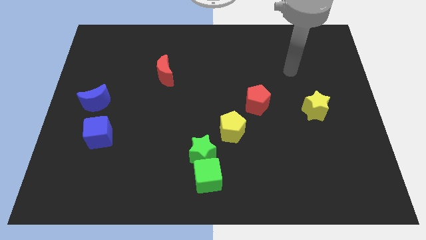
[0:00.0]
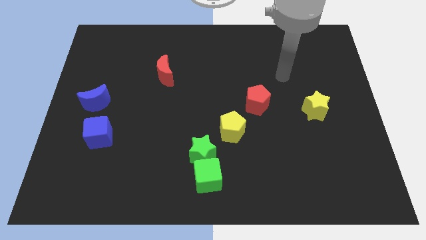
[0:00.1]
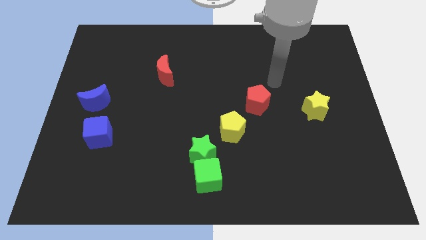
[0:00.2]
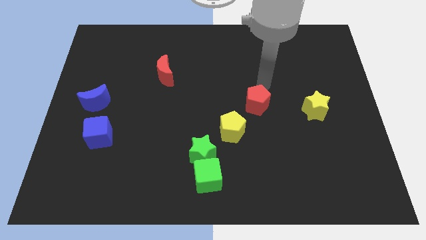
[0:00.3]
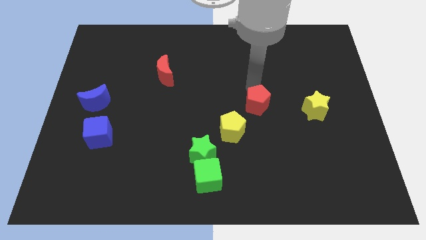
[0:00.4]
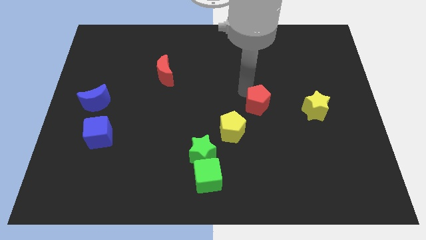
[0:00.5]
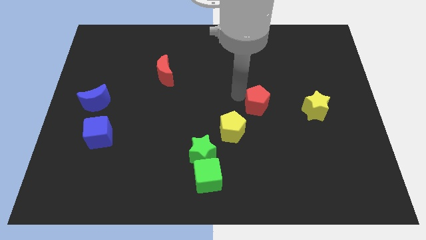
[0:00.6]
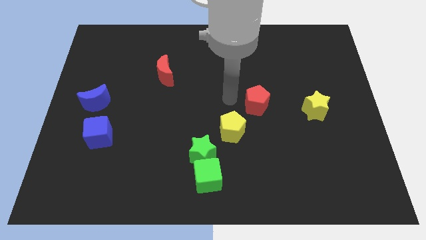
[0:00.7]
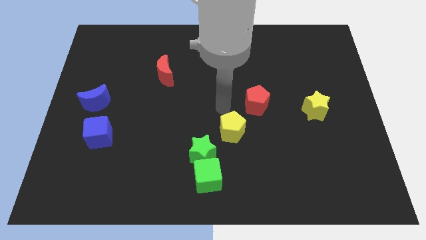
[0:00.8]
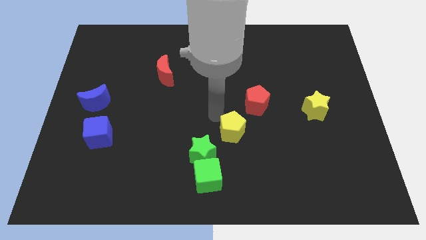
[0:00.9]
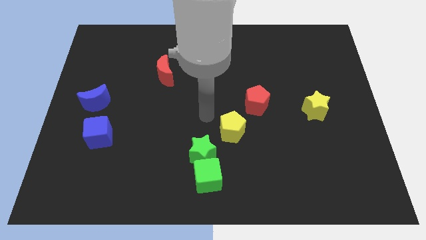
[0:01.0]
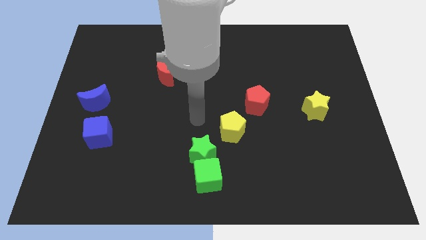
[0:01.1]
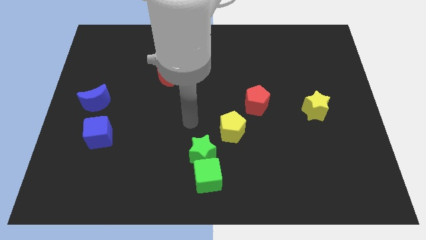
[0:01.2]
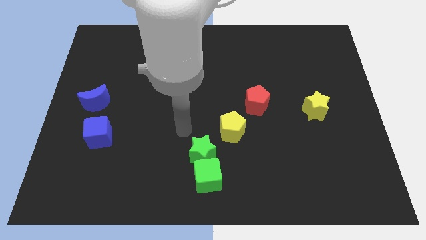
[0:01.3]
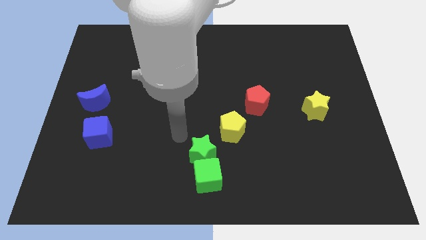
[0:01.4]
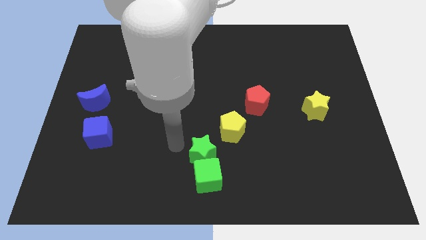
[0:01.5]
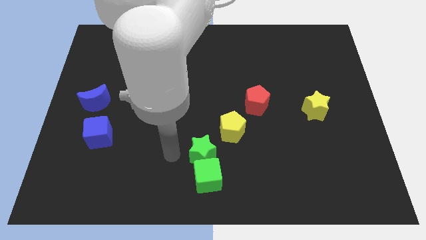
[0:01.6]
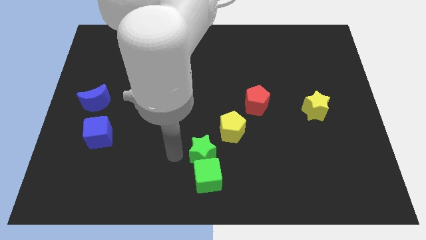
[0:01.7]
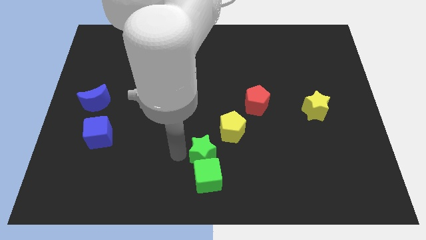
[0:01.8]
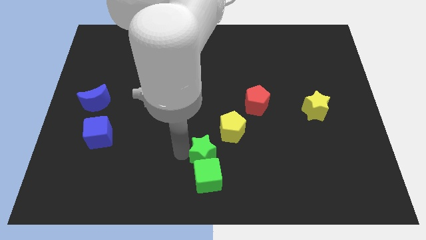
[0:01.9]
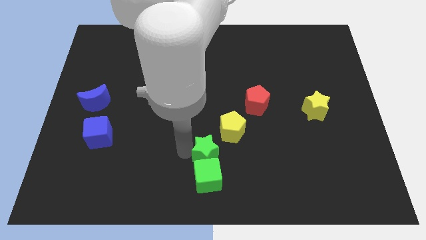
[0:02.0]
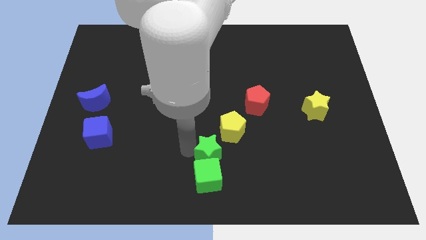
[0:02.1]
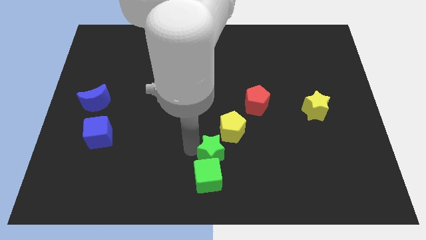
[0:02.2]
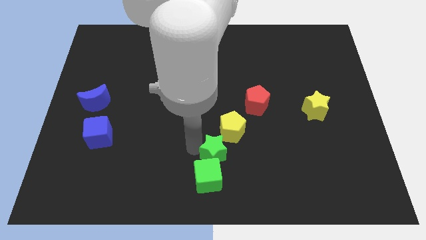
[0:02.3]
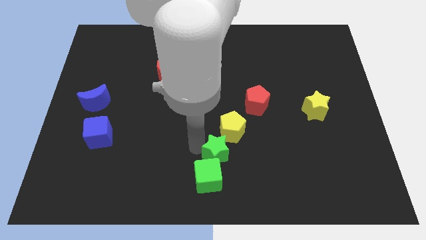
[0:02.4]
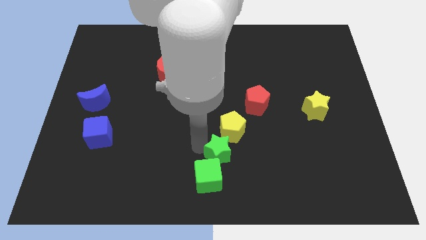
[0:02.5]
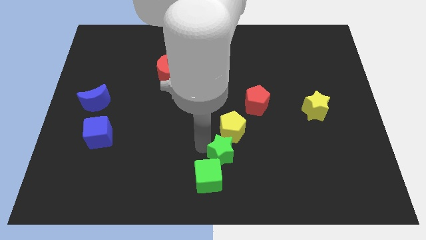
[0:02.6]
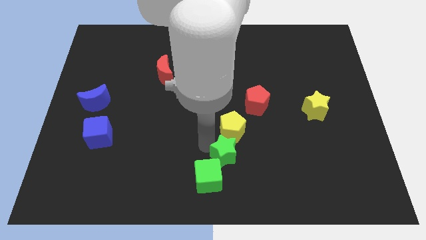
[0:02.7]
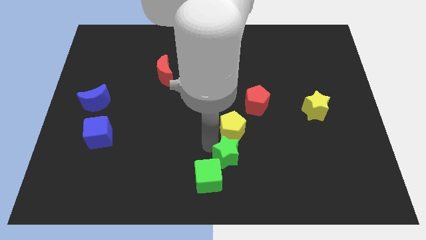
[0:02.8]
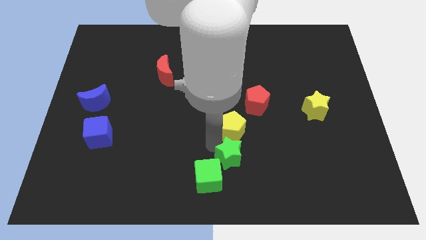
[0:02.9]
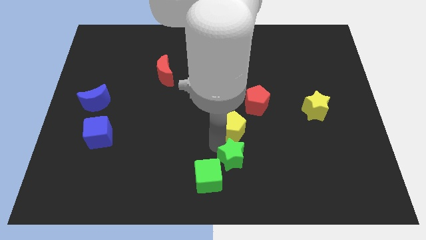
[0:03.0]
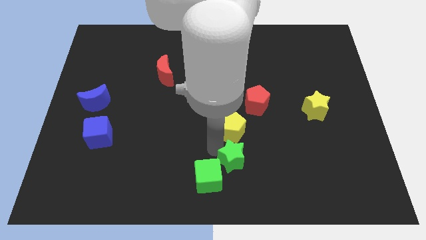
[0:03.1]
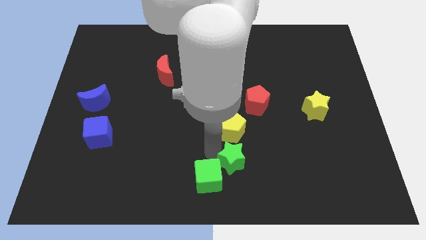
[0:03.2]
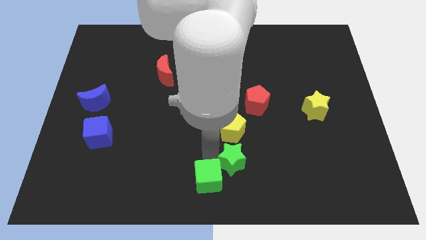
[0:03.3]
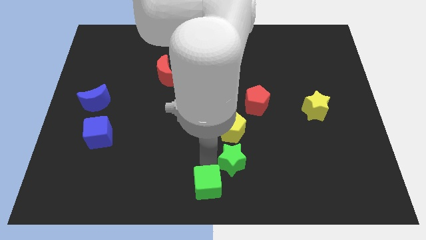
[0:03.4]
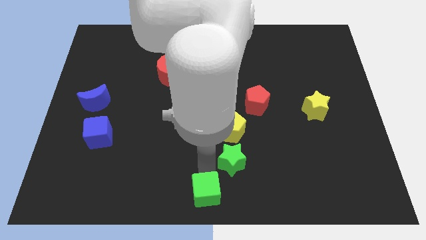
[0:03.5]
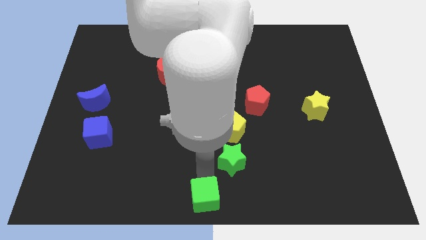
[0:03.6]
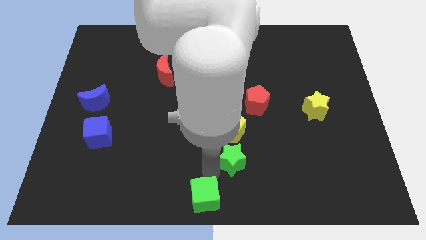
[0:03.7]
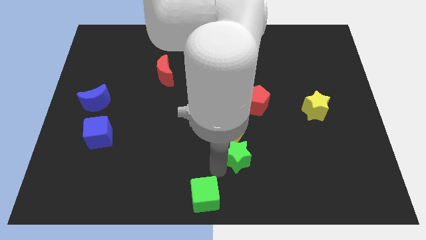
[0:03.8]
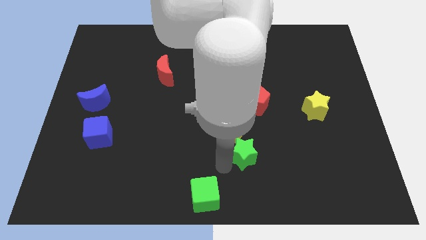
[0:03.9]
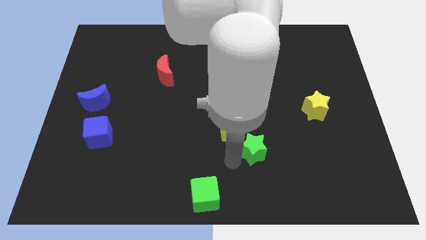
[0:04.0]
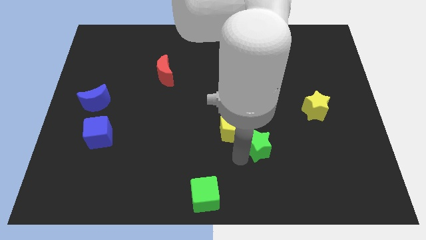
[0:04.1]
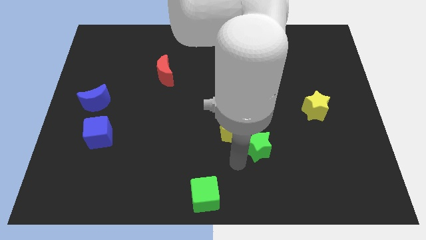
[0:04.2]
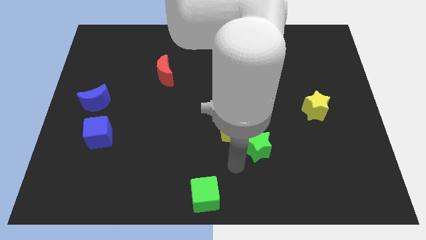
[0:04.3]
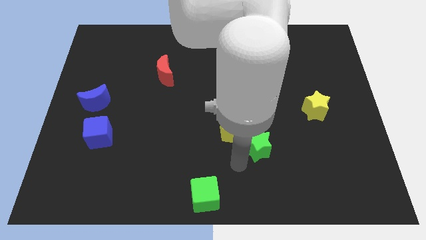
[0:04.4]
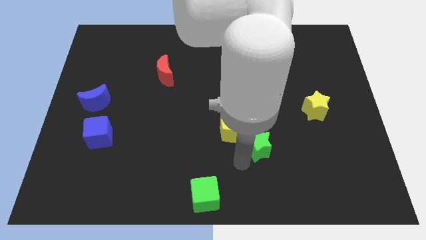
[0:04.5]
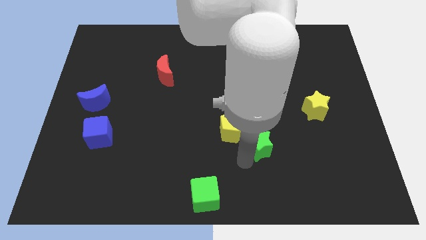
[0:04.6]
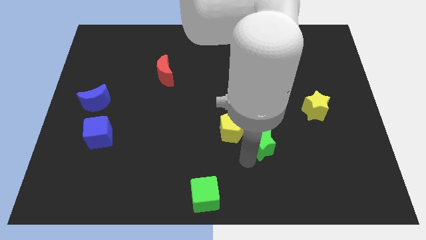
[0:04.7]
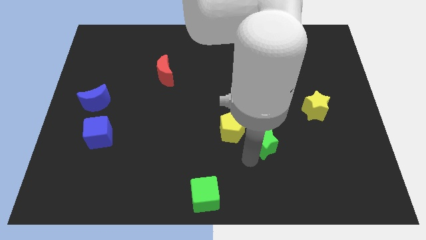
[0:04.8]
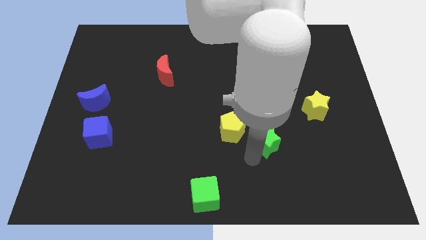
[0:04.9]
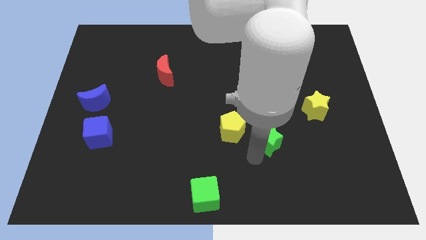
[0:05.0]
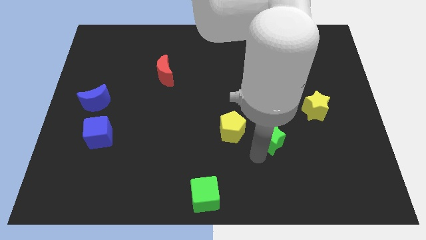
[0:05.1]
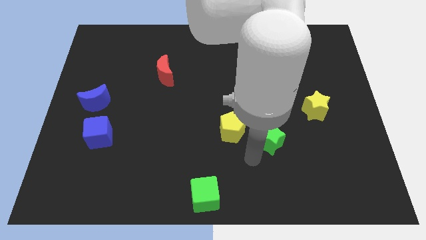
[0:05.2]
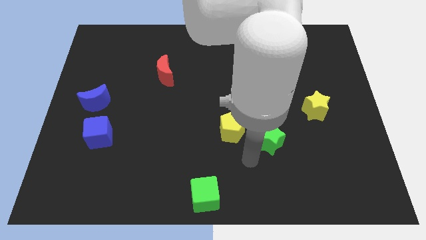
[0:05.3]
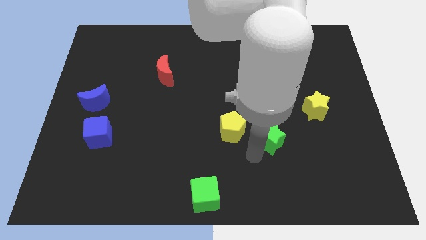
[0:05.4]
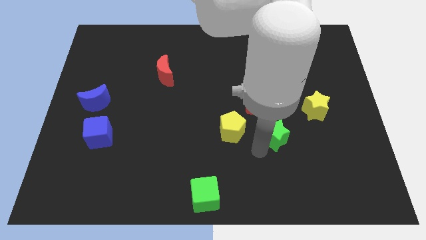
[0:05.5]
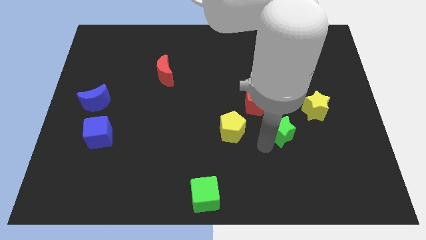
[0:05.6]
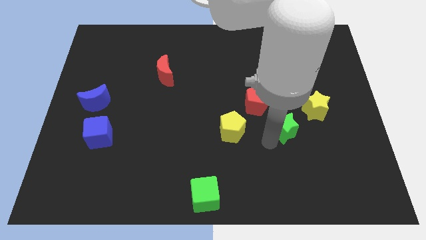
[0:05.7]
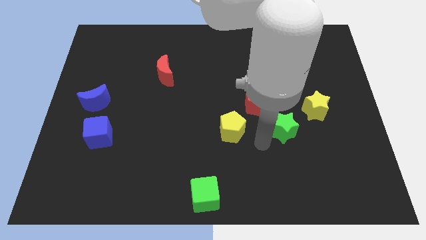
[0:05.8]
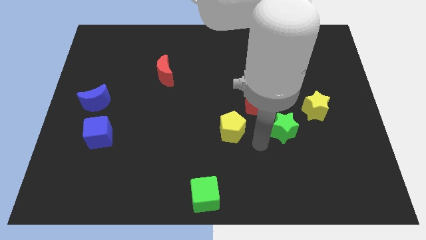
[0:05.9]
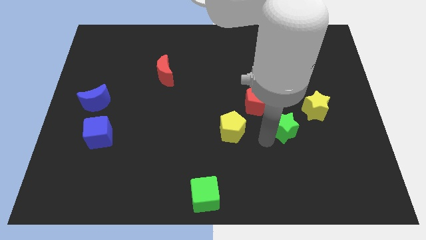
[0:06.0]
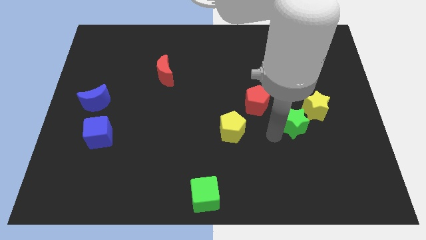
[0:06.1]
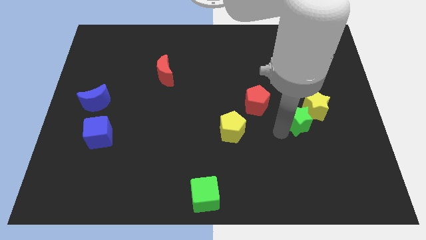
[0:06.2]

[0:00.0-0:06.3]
put the green star towards the yellow star

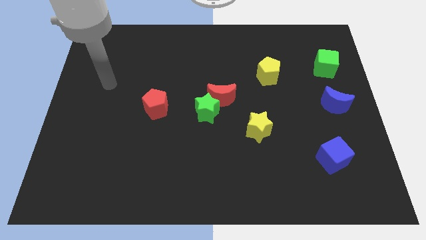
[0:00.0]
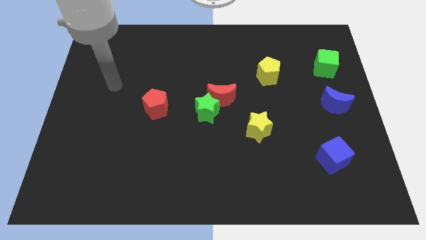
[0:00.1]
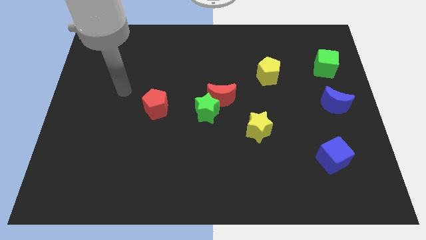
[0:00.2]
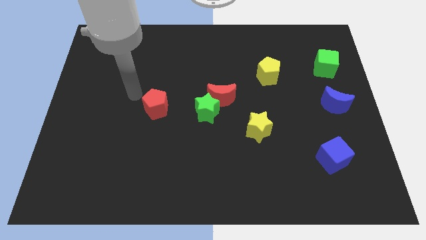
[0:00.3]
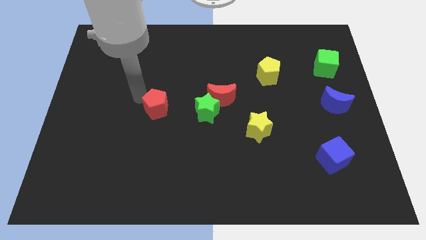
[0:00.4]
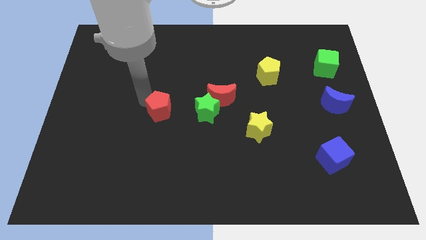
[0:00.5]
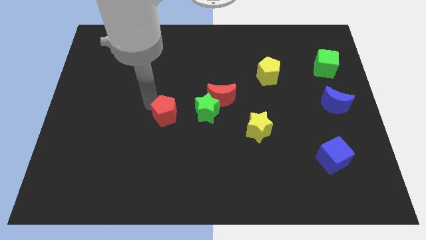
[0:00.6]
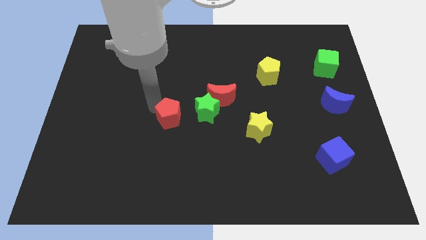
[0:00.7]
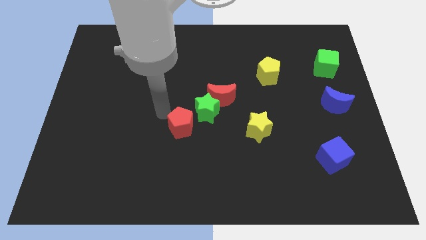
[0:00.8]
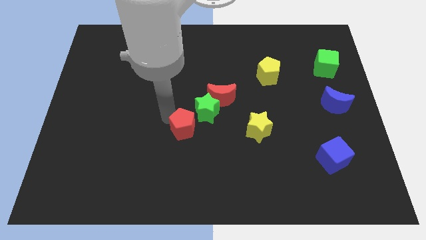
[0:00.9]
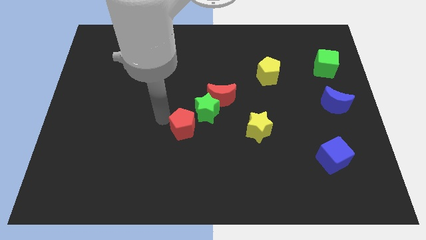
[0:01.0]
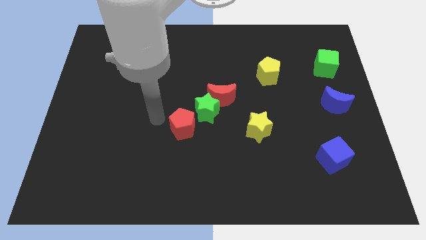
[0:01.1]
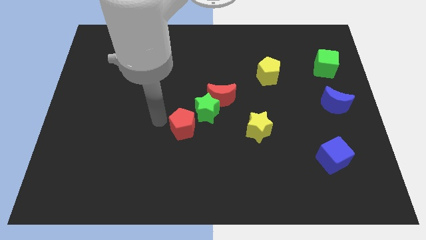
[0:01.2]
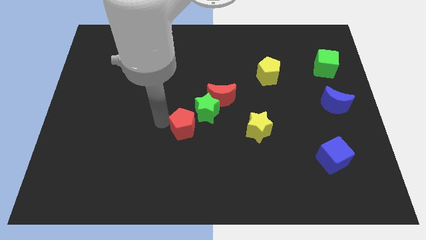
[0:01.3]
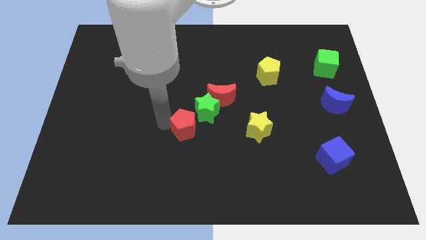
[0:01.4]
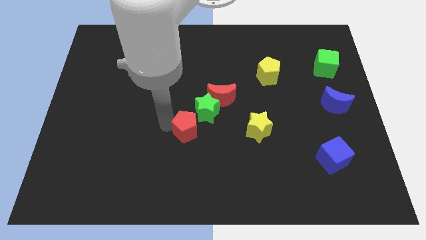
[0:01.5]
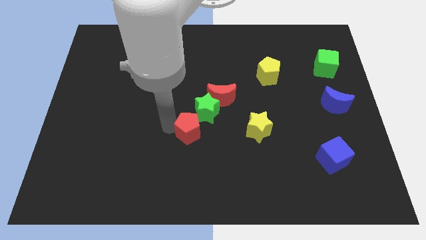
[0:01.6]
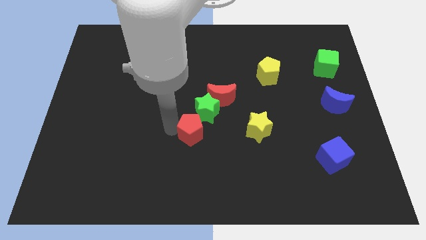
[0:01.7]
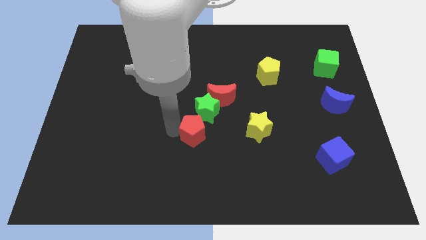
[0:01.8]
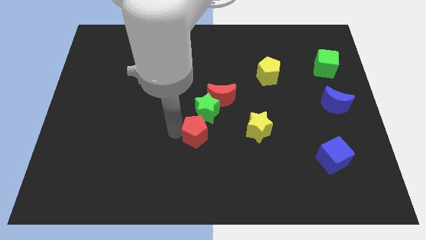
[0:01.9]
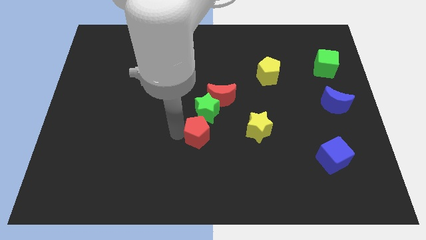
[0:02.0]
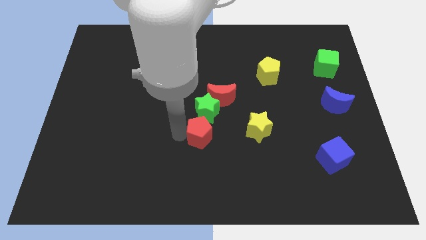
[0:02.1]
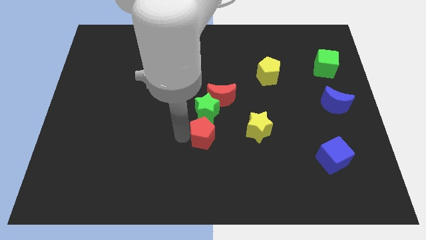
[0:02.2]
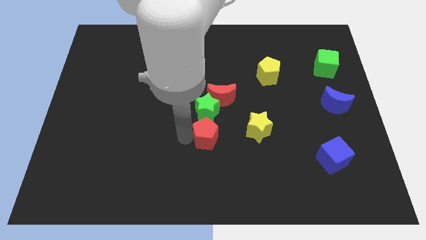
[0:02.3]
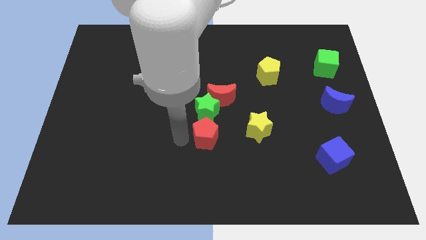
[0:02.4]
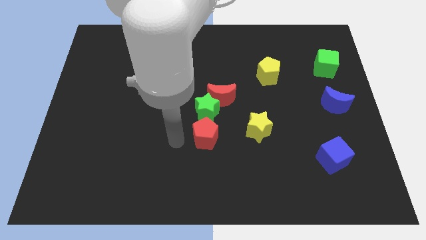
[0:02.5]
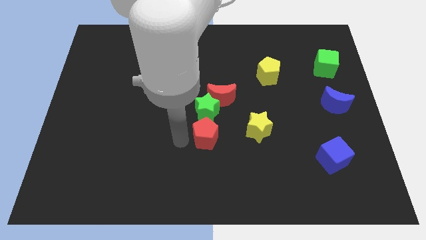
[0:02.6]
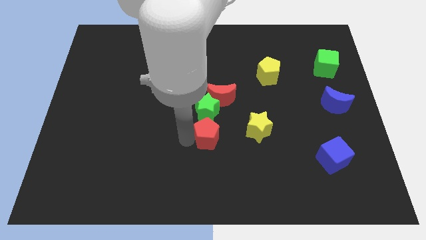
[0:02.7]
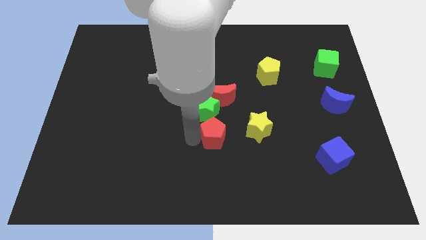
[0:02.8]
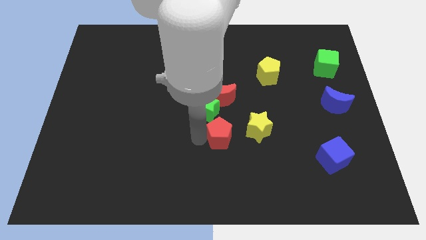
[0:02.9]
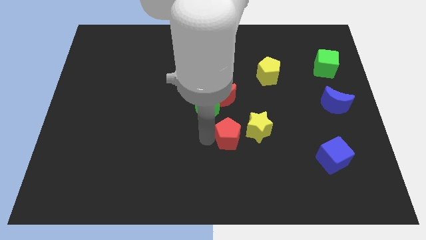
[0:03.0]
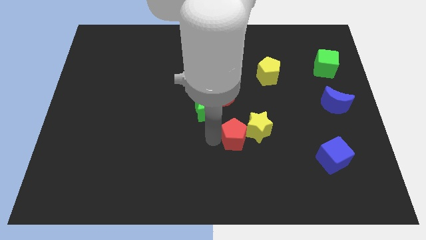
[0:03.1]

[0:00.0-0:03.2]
slide the red pentagon towards the yellow star
